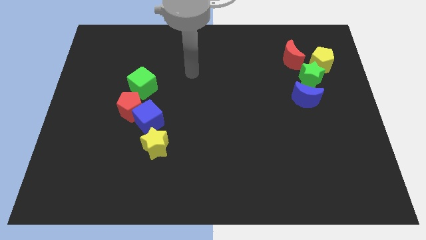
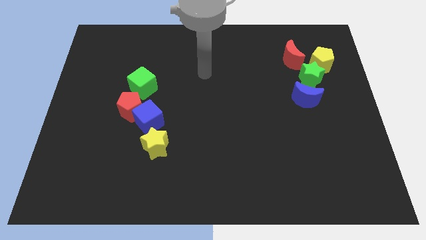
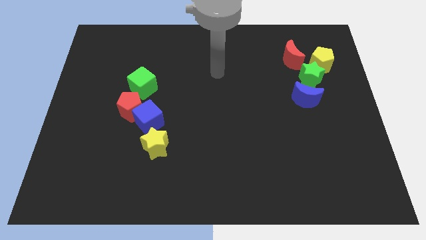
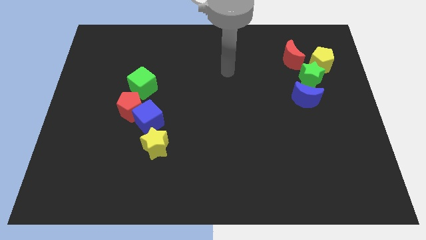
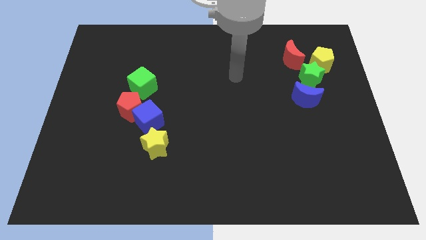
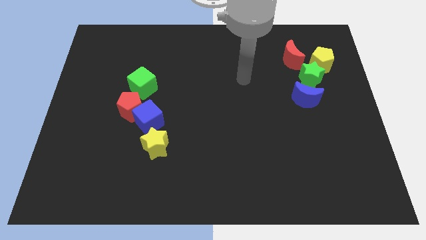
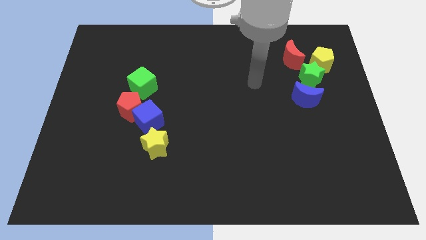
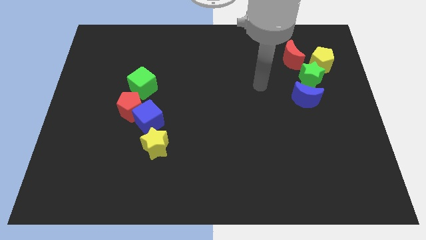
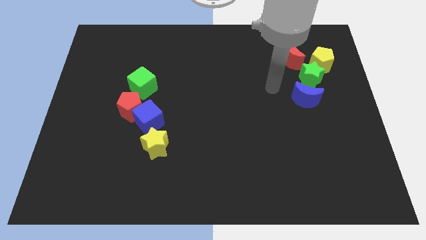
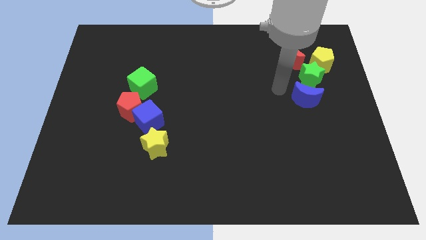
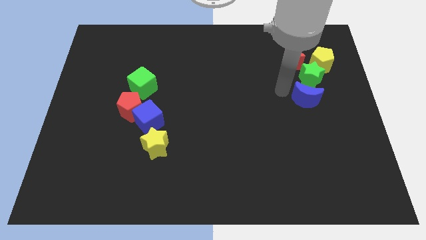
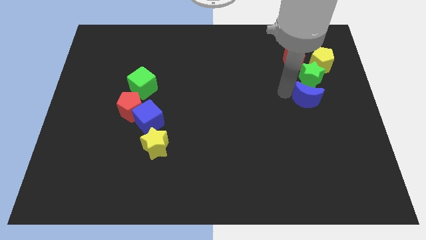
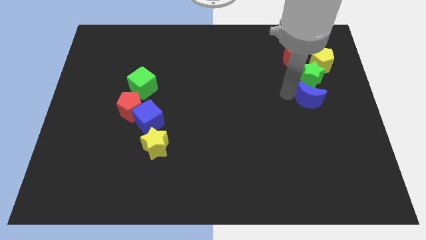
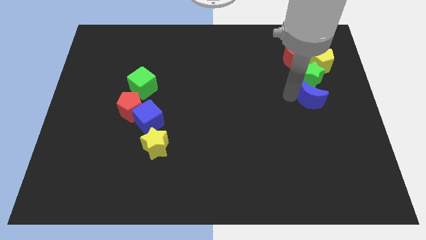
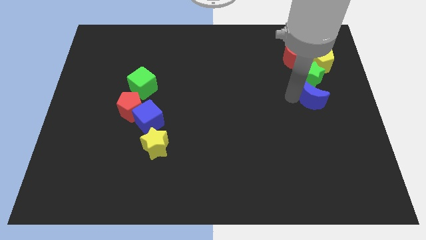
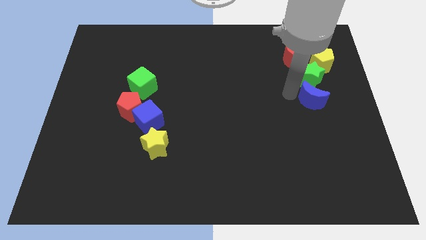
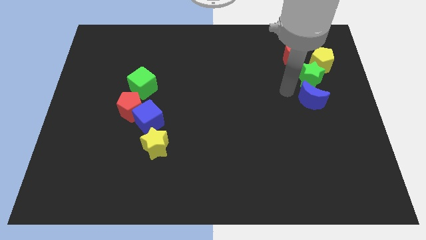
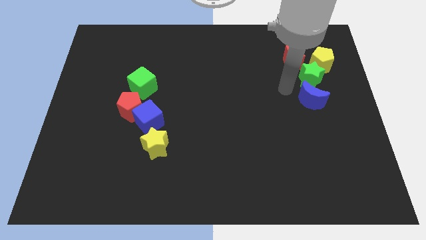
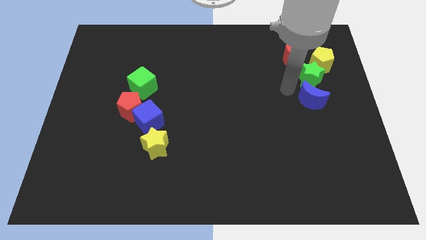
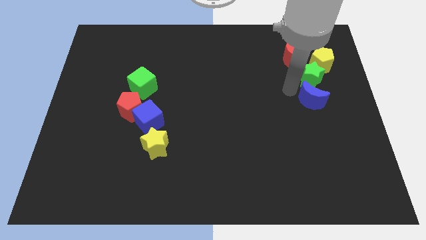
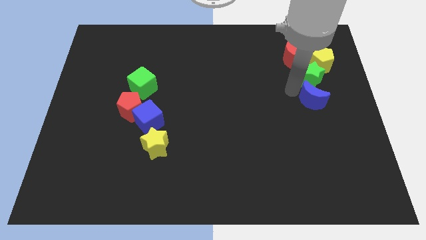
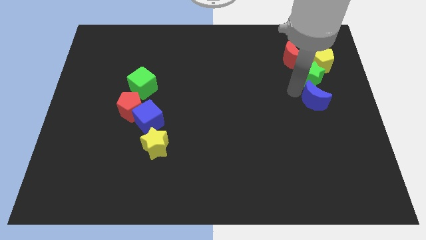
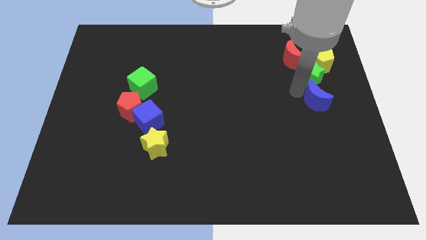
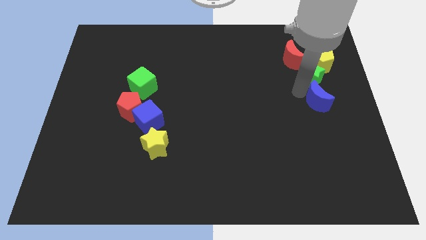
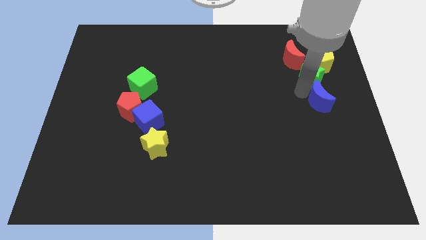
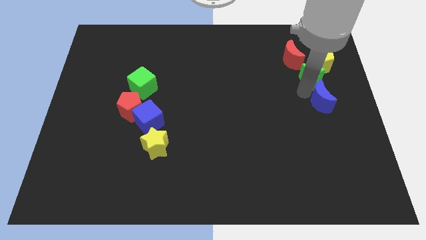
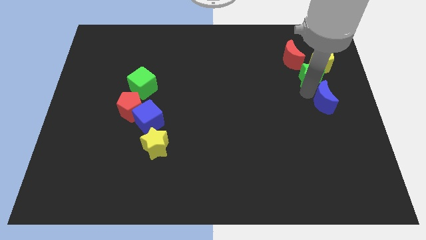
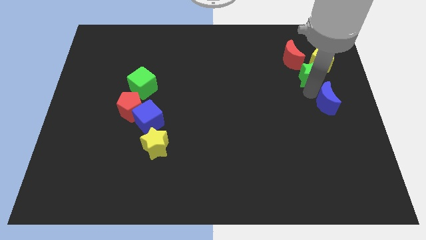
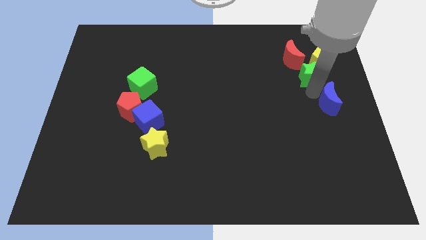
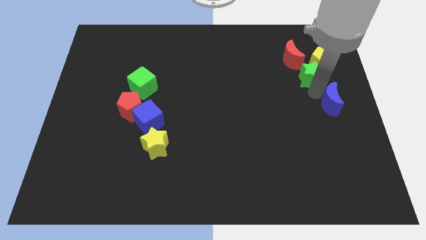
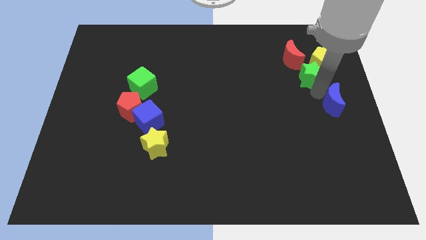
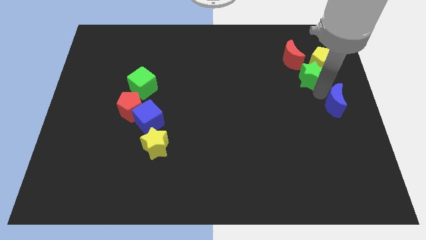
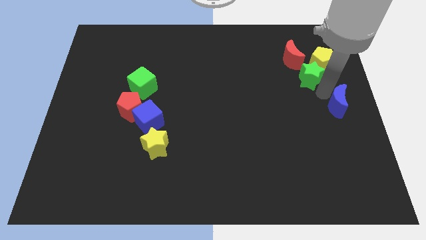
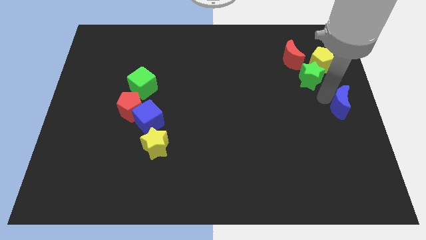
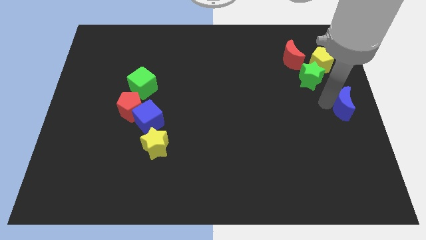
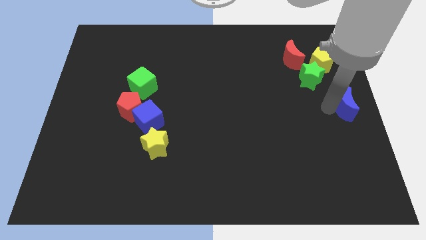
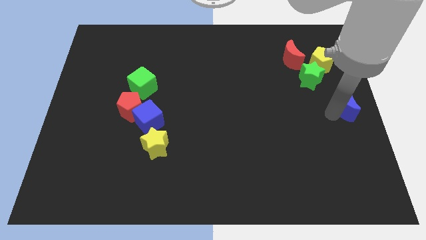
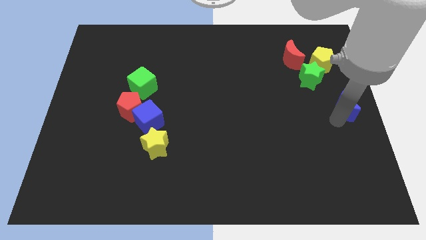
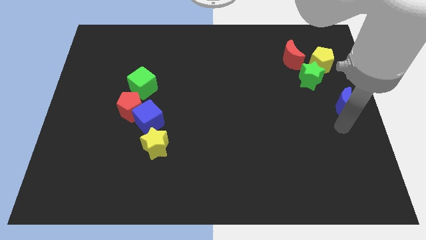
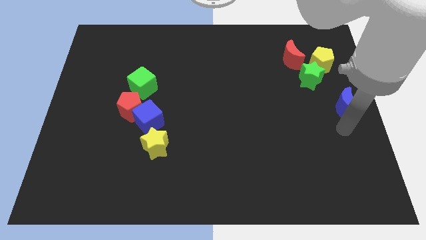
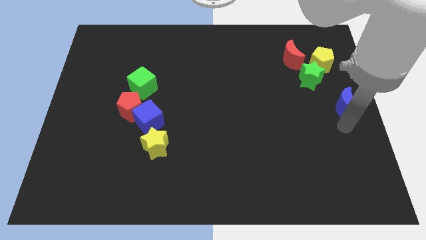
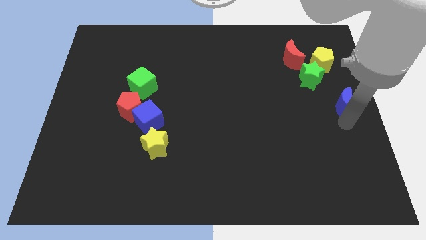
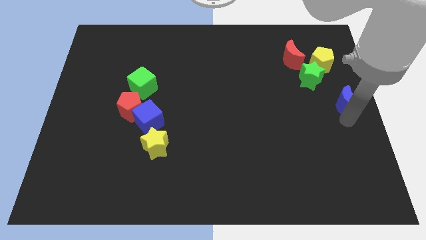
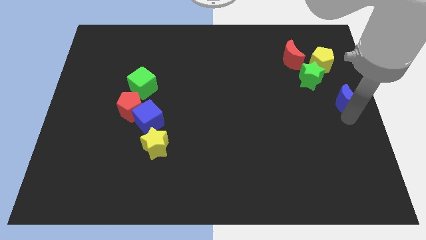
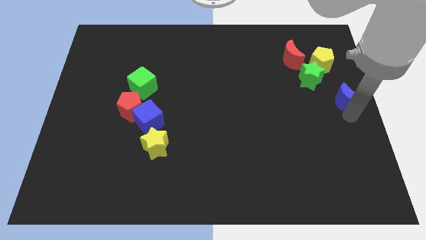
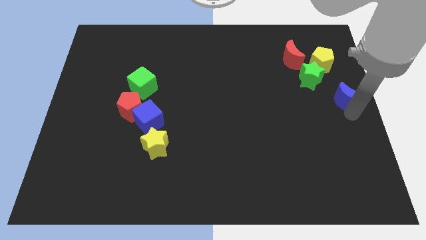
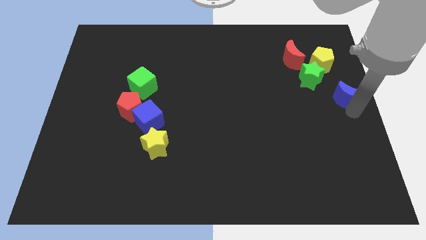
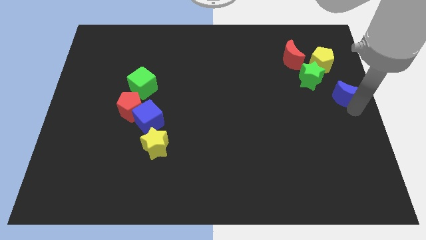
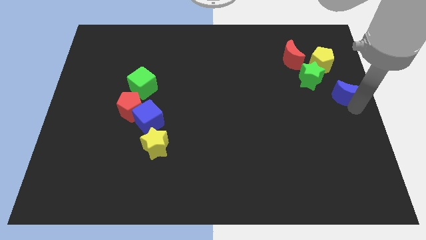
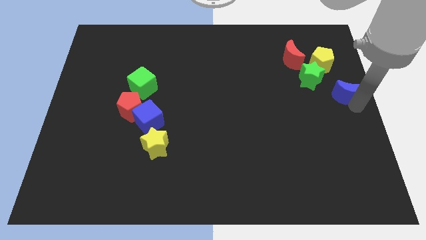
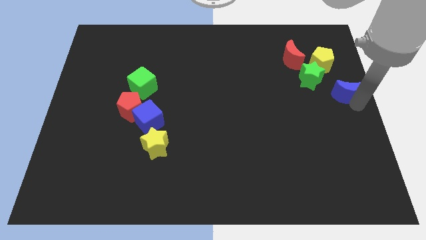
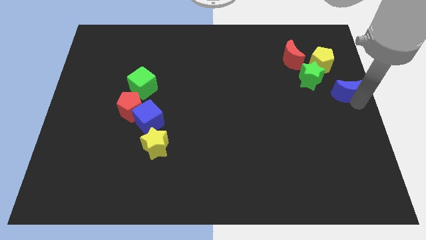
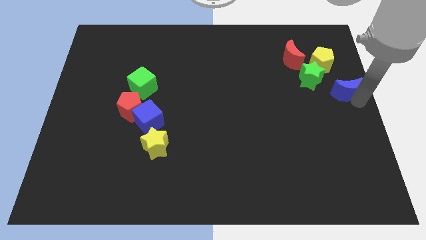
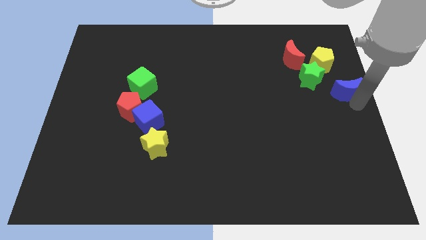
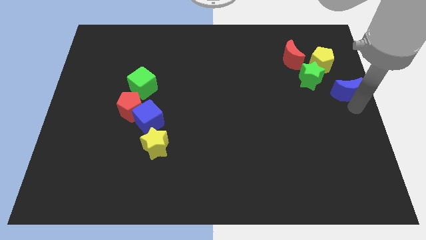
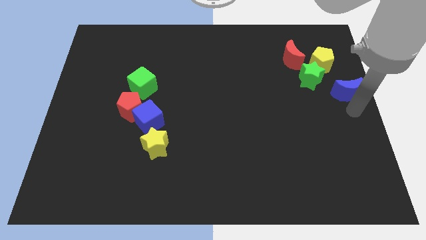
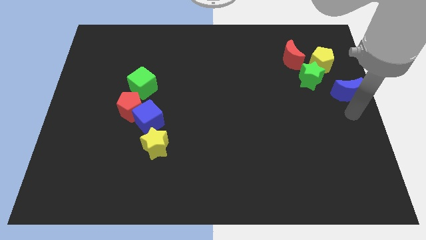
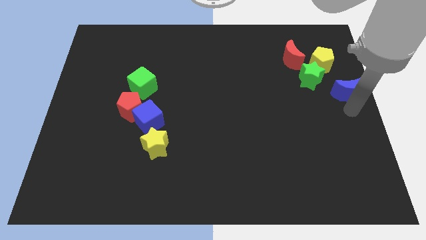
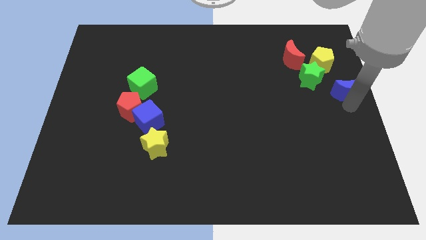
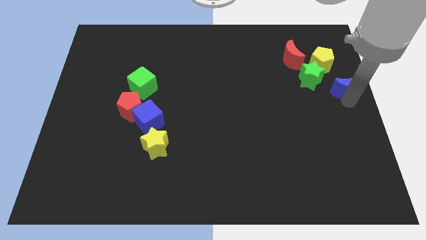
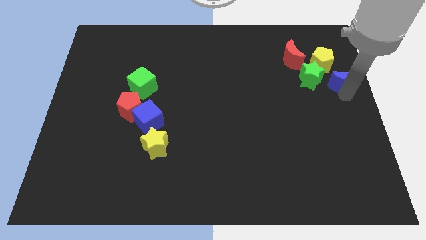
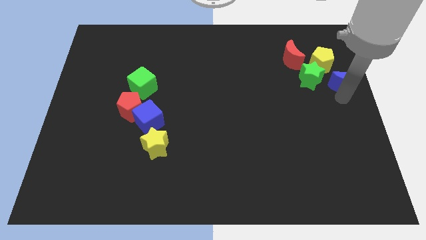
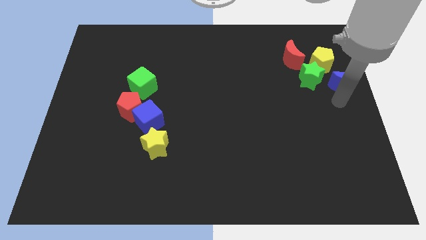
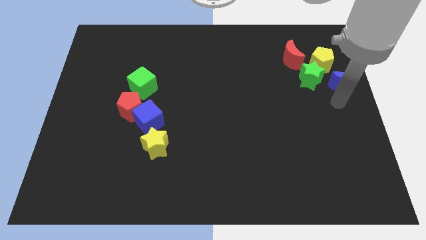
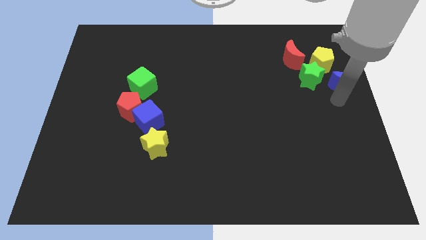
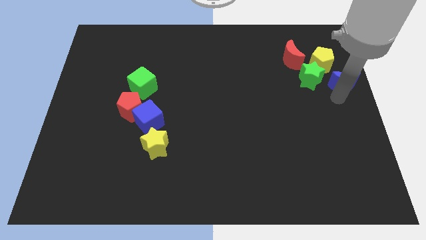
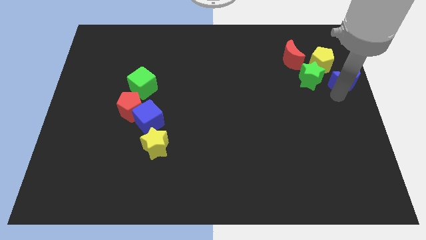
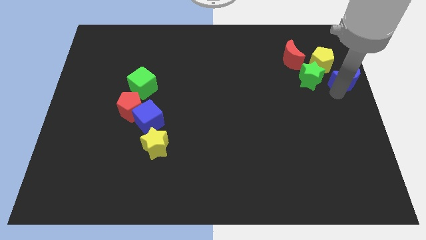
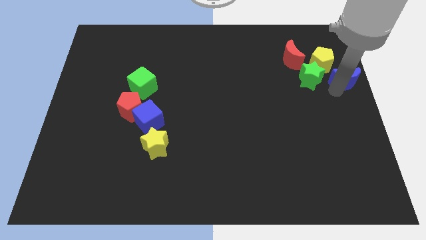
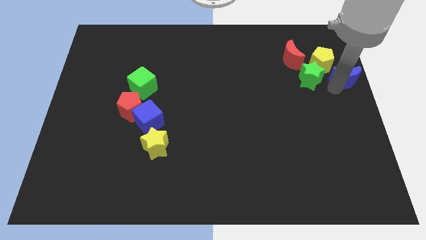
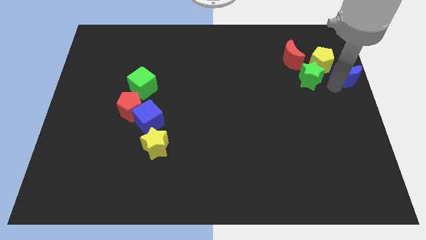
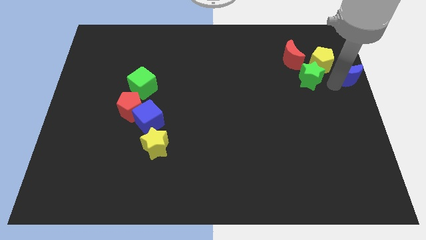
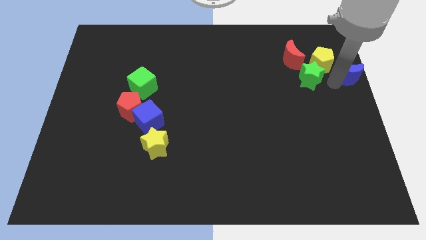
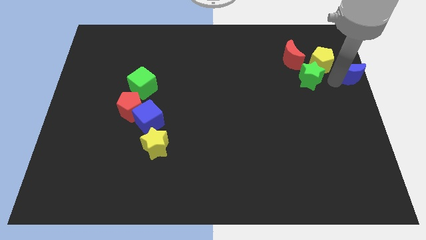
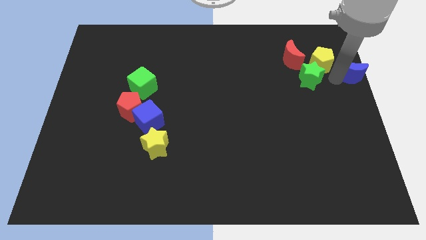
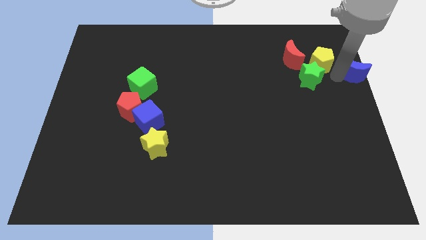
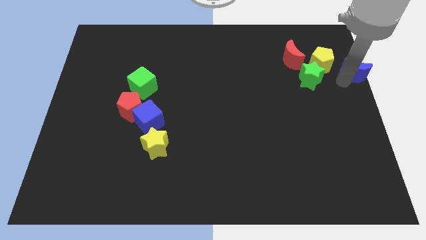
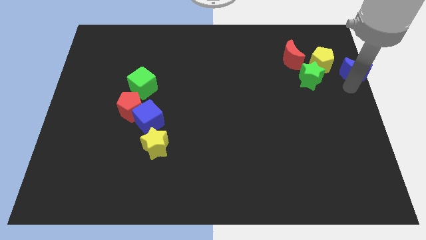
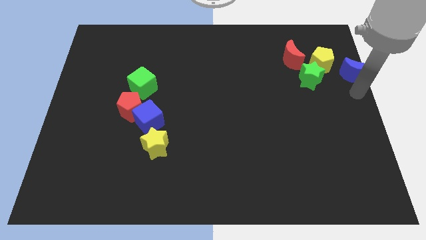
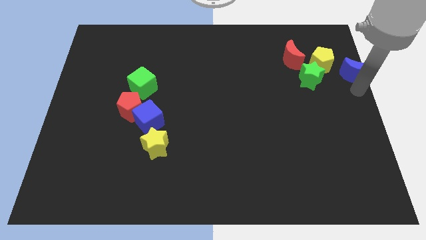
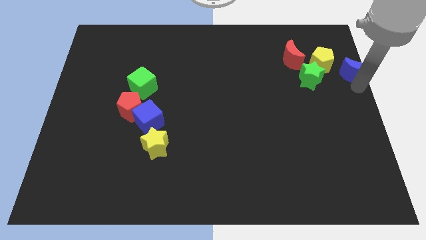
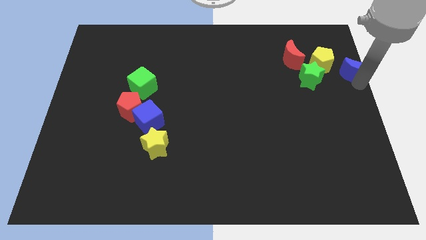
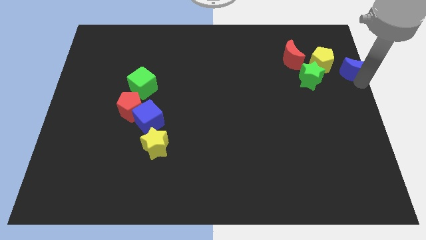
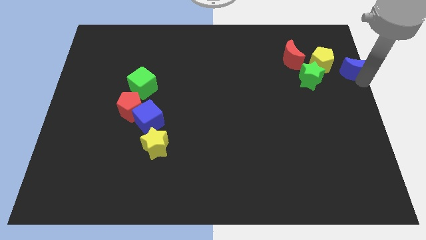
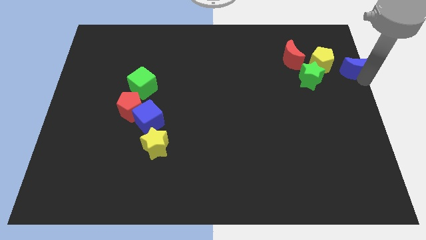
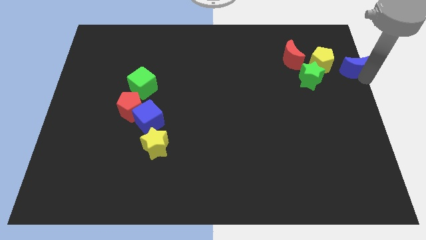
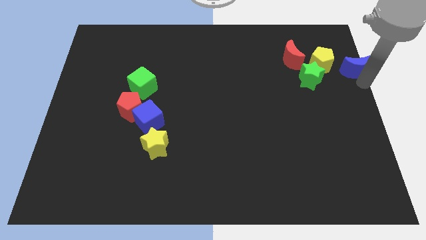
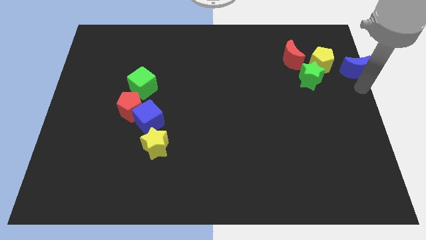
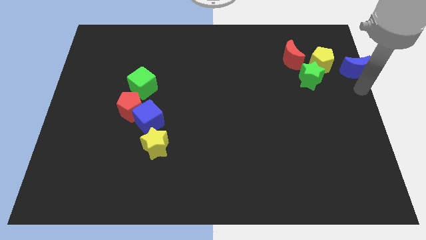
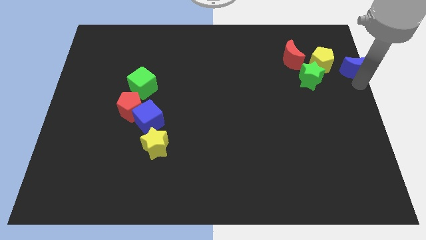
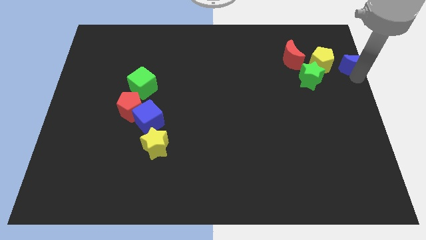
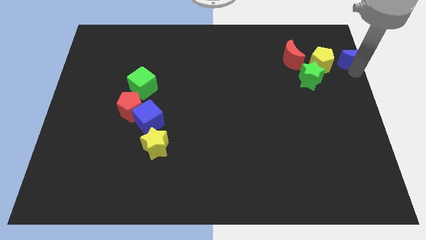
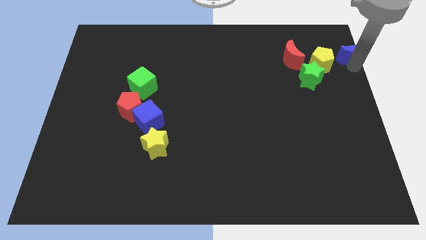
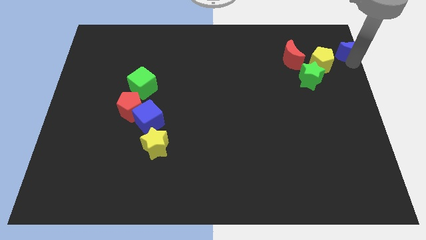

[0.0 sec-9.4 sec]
push the blue moon to the upper right corner
